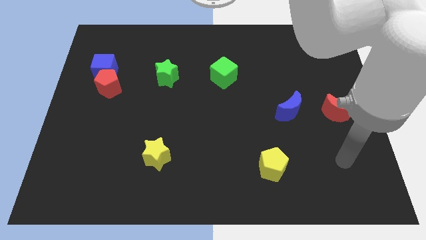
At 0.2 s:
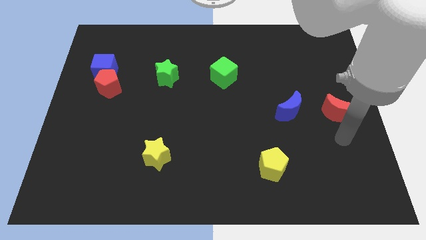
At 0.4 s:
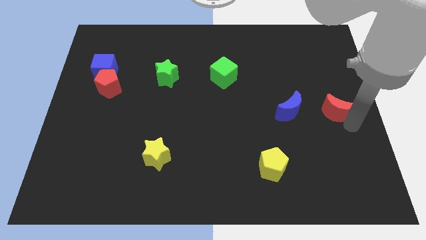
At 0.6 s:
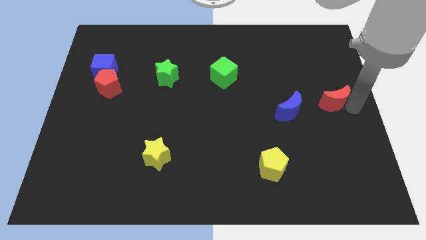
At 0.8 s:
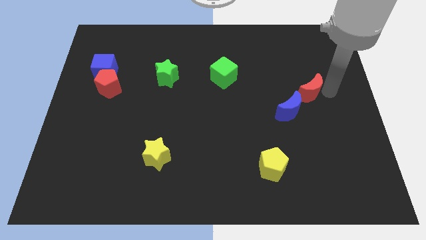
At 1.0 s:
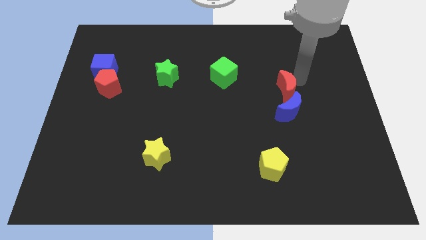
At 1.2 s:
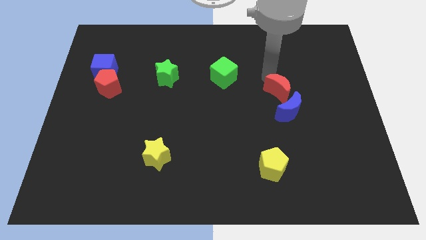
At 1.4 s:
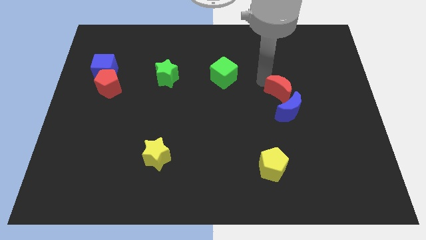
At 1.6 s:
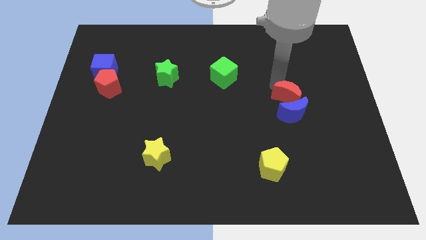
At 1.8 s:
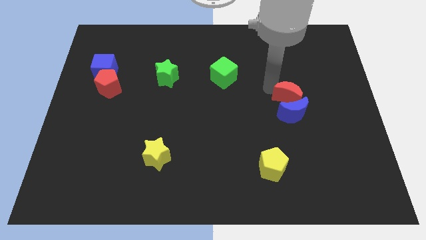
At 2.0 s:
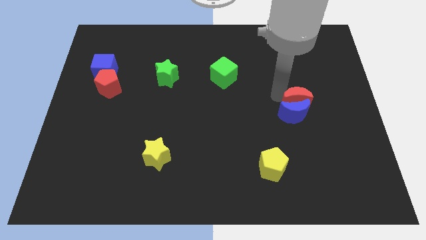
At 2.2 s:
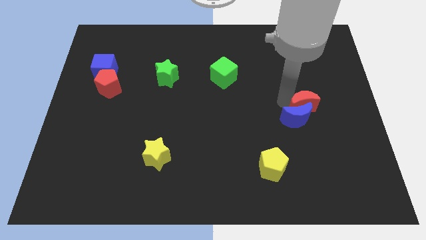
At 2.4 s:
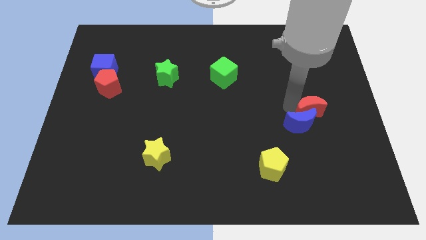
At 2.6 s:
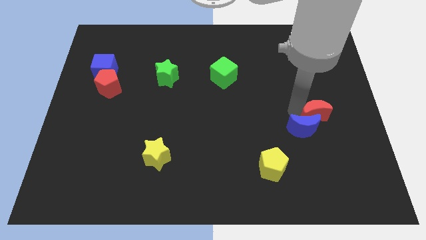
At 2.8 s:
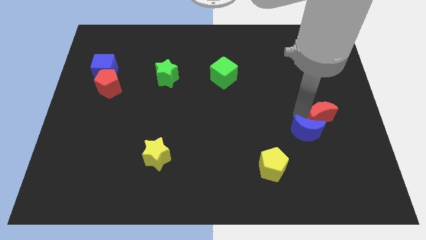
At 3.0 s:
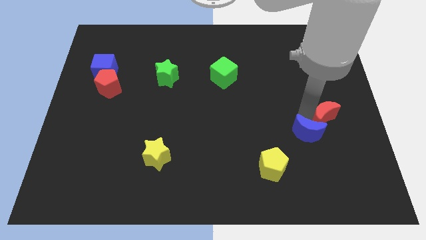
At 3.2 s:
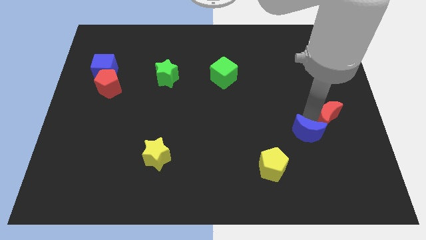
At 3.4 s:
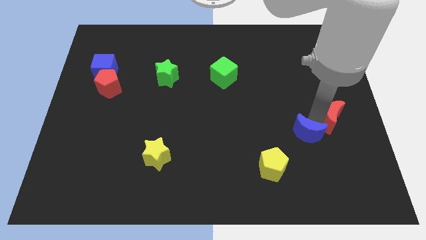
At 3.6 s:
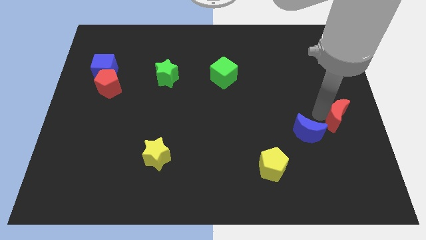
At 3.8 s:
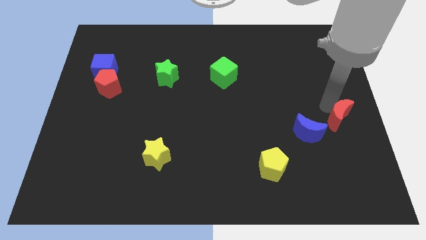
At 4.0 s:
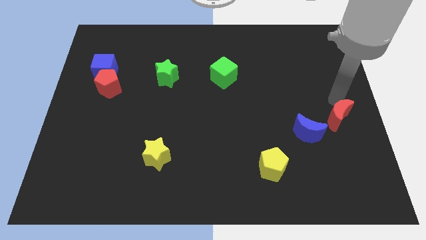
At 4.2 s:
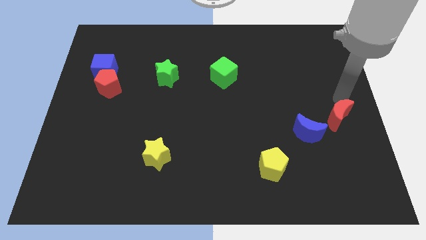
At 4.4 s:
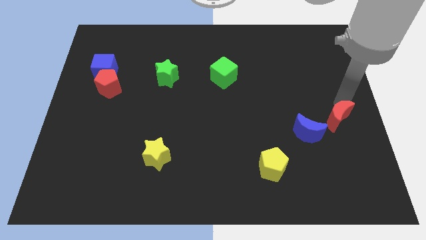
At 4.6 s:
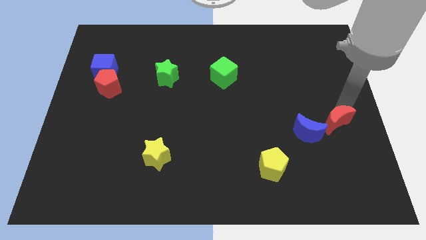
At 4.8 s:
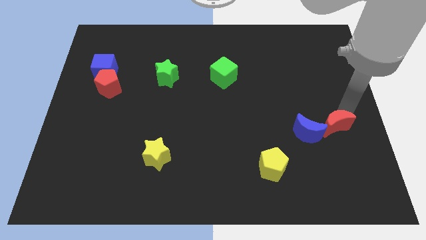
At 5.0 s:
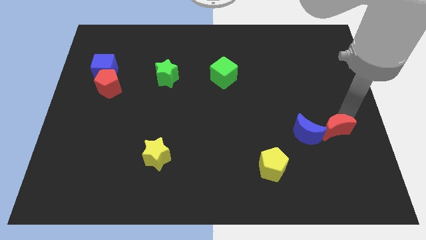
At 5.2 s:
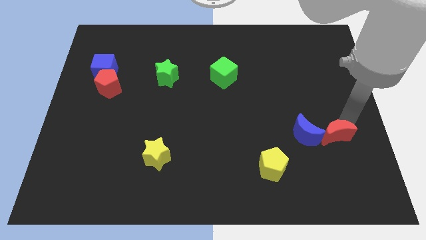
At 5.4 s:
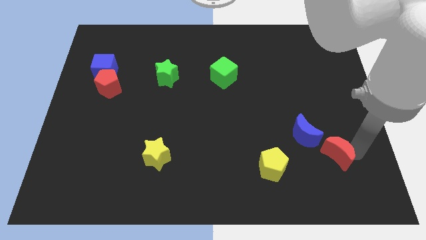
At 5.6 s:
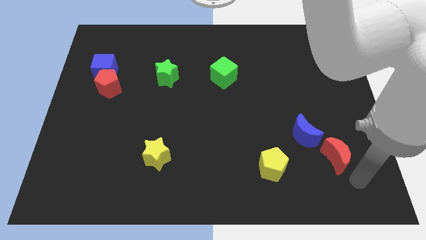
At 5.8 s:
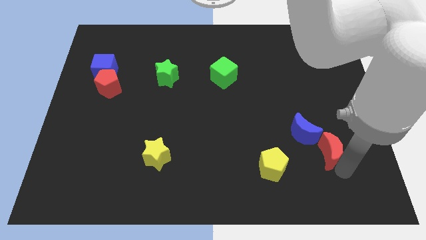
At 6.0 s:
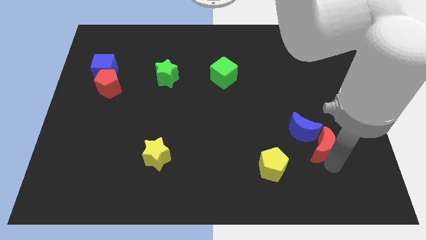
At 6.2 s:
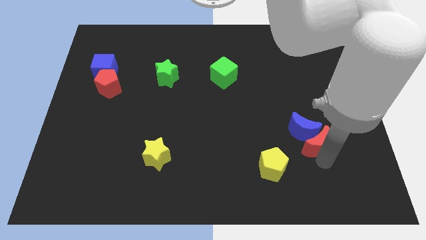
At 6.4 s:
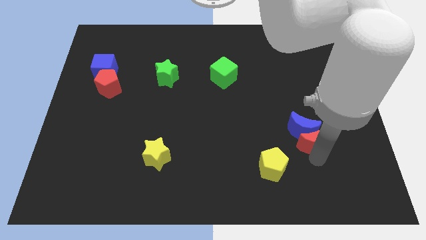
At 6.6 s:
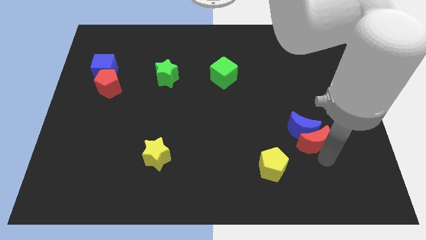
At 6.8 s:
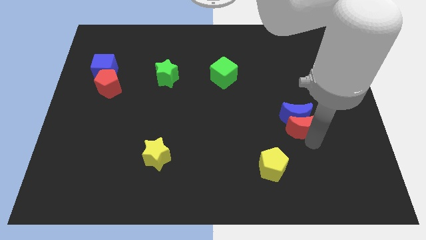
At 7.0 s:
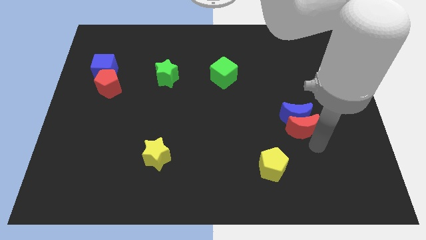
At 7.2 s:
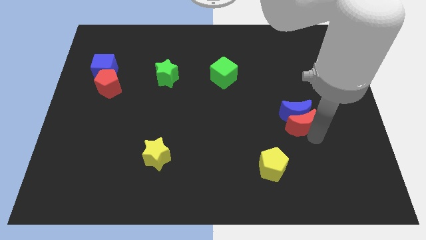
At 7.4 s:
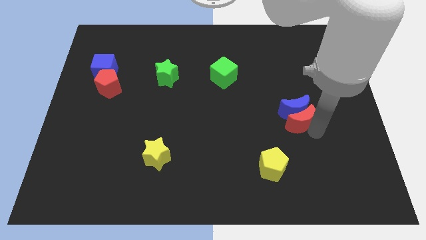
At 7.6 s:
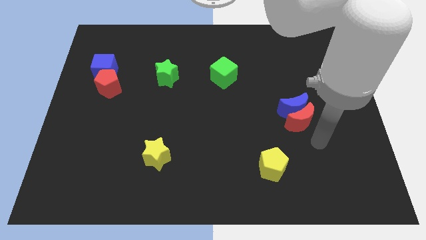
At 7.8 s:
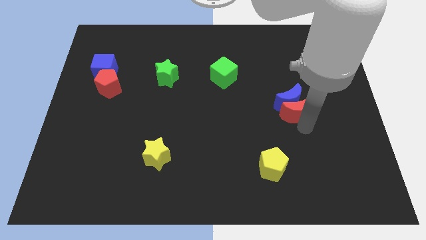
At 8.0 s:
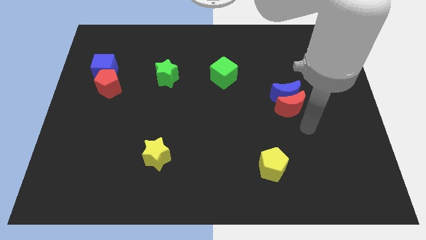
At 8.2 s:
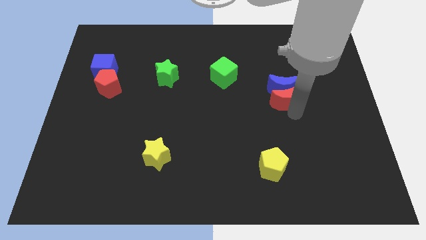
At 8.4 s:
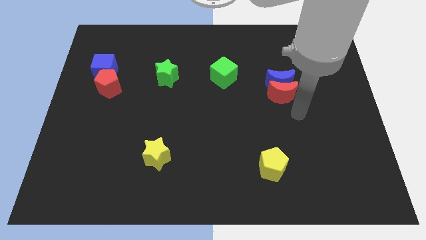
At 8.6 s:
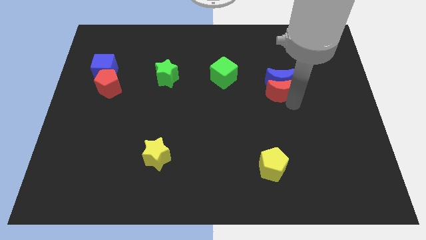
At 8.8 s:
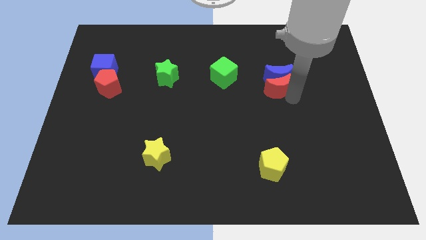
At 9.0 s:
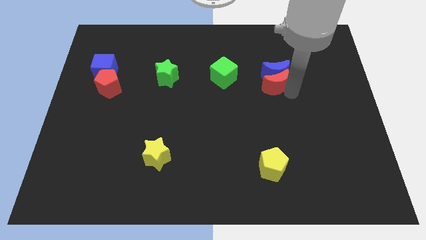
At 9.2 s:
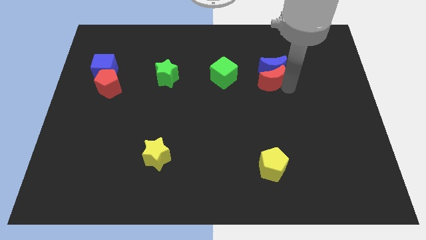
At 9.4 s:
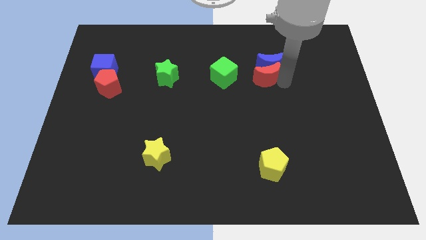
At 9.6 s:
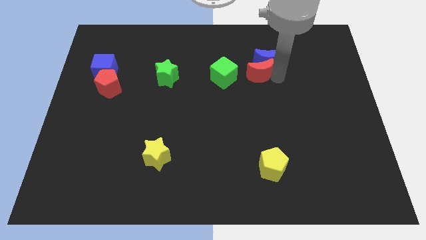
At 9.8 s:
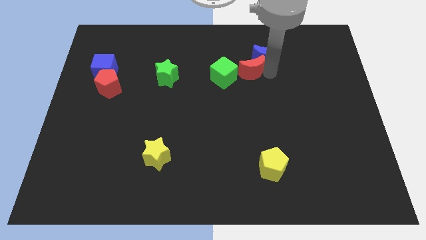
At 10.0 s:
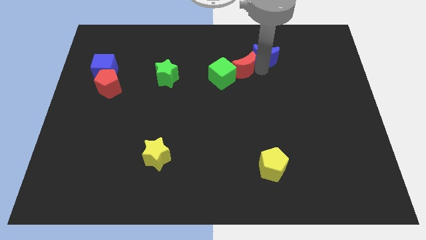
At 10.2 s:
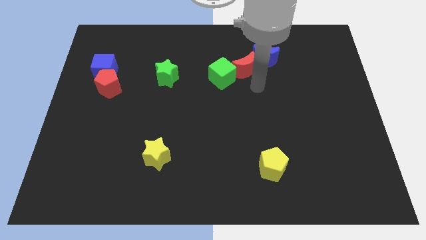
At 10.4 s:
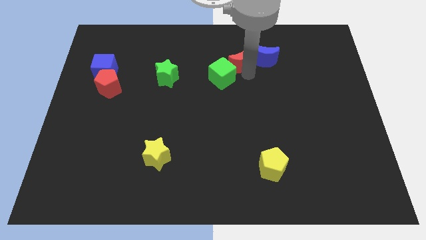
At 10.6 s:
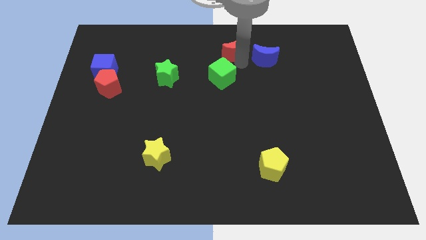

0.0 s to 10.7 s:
put the red moon to the top side
